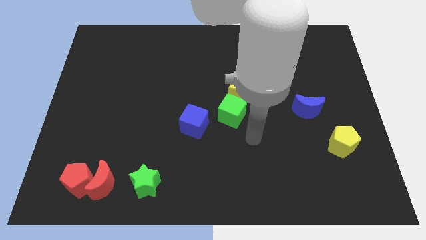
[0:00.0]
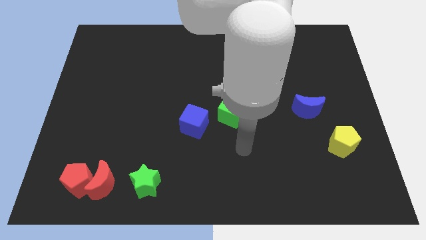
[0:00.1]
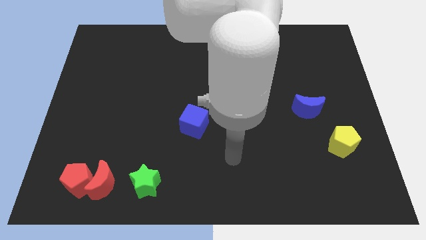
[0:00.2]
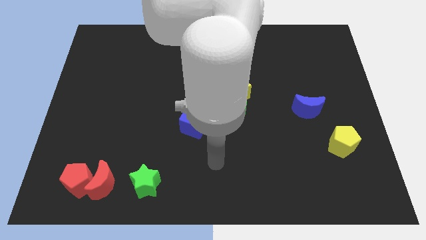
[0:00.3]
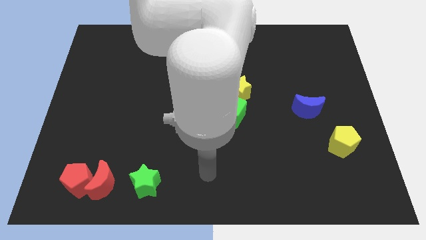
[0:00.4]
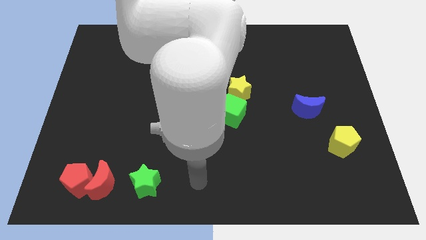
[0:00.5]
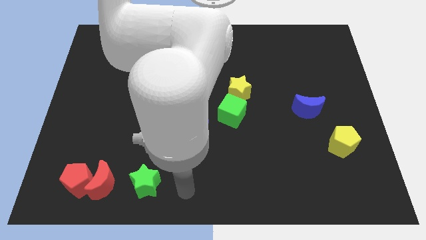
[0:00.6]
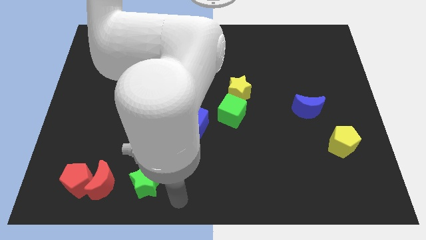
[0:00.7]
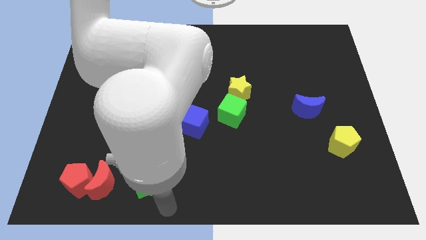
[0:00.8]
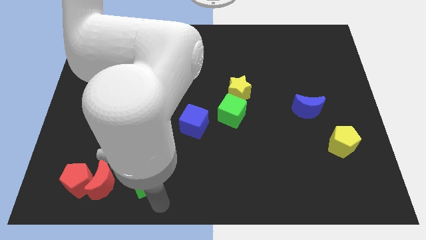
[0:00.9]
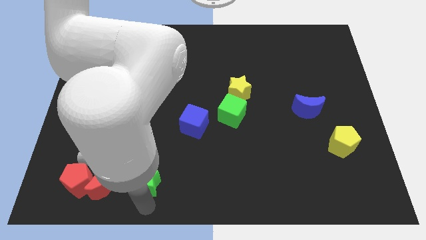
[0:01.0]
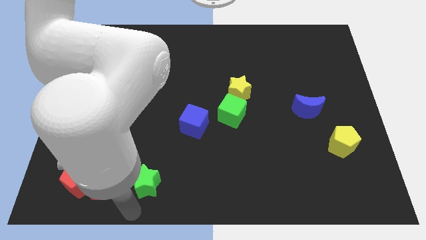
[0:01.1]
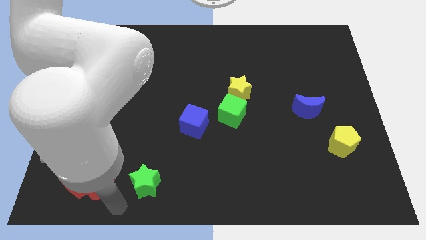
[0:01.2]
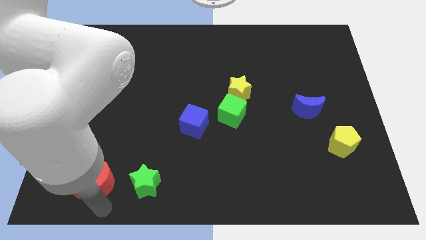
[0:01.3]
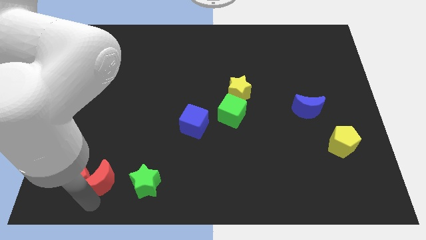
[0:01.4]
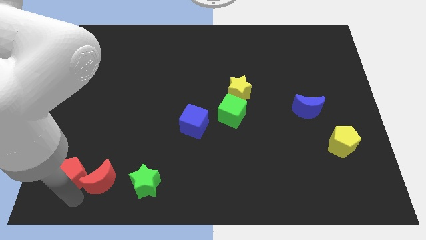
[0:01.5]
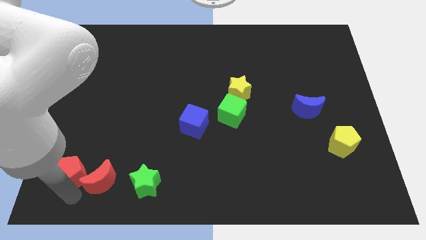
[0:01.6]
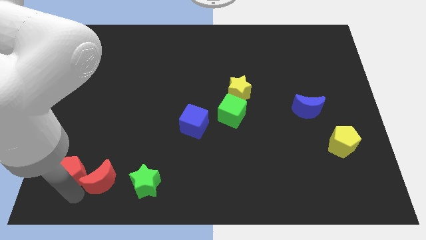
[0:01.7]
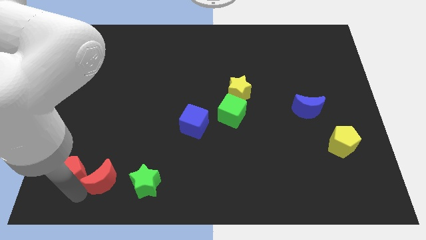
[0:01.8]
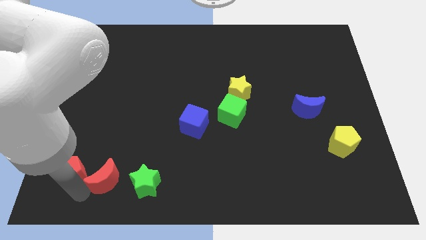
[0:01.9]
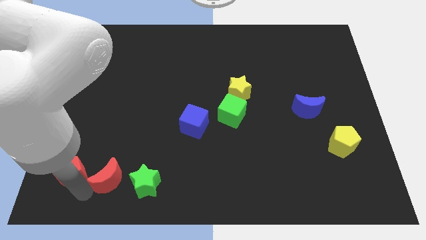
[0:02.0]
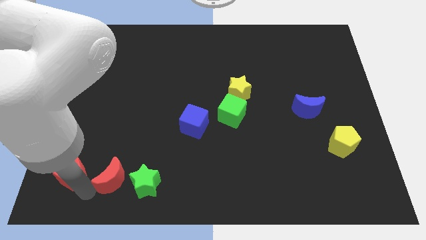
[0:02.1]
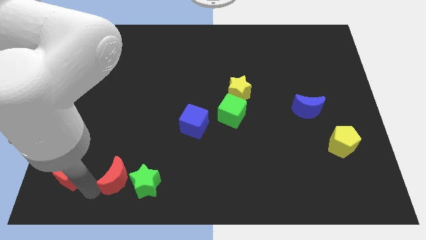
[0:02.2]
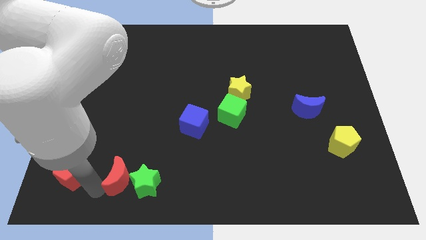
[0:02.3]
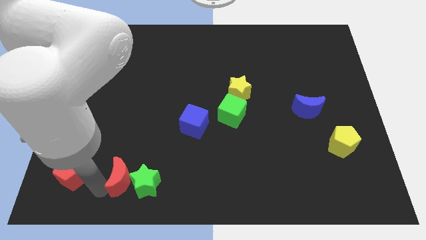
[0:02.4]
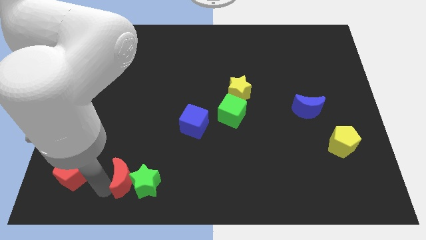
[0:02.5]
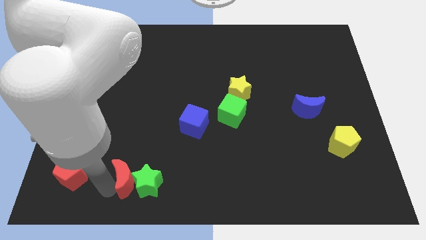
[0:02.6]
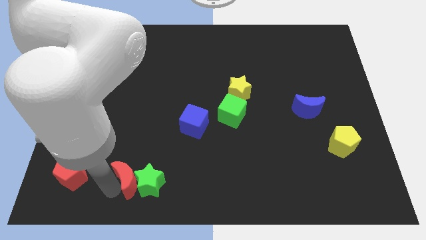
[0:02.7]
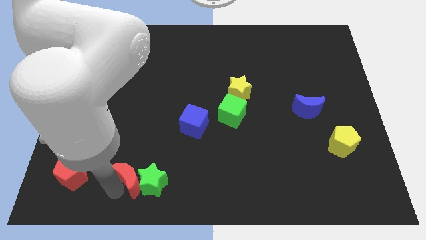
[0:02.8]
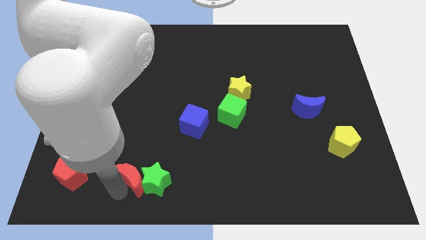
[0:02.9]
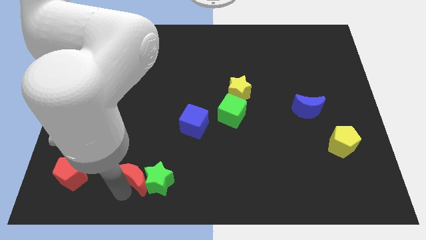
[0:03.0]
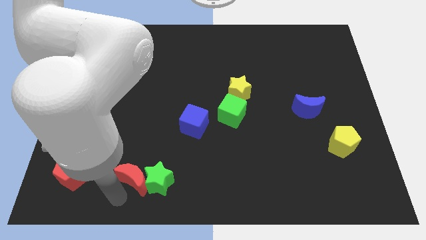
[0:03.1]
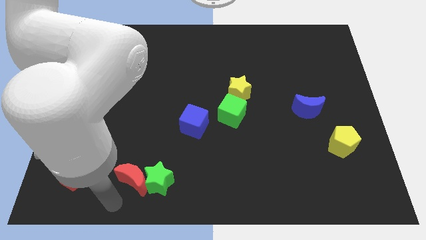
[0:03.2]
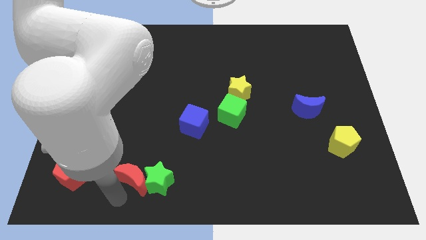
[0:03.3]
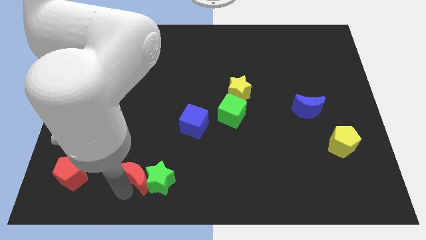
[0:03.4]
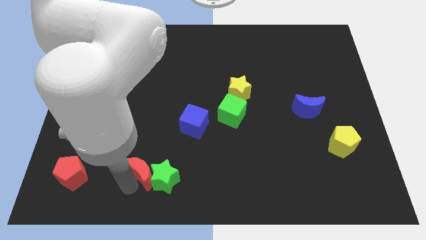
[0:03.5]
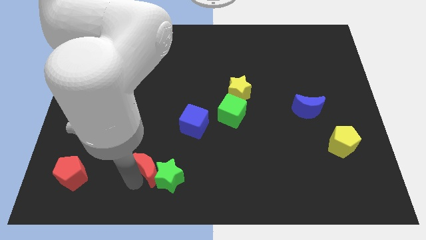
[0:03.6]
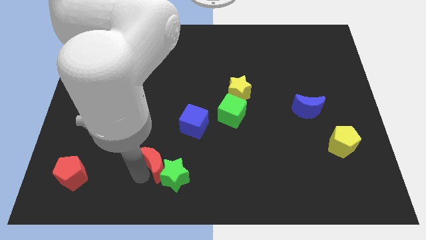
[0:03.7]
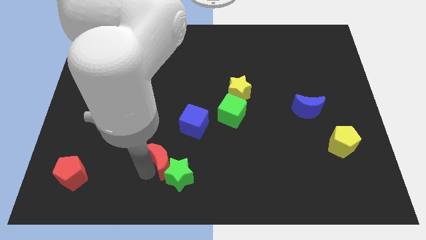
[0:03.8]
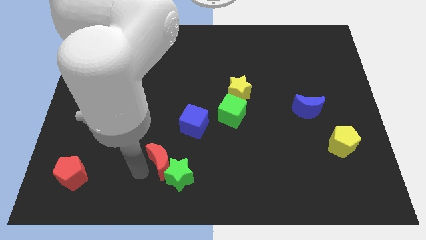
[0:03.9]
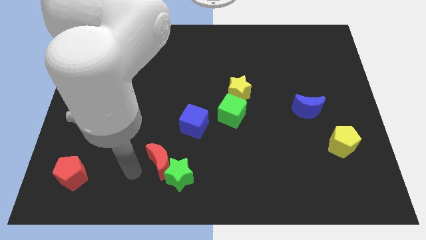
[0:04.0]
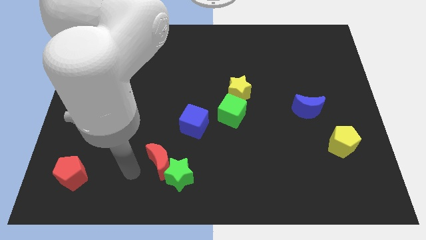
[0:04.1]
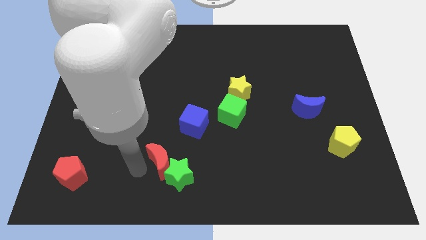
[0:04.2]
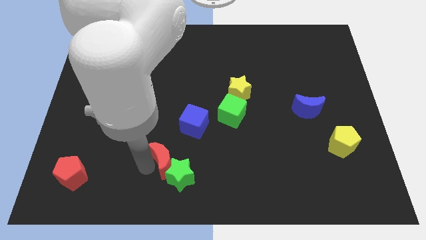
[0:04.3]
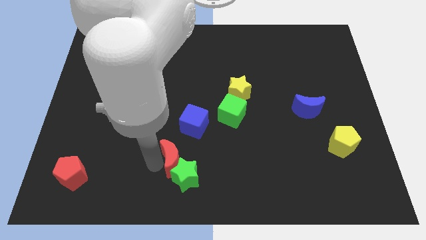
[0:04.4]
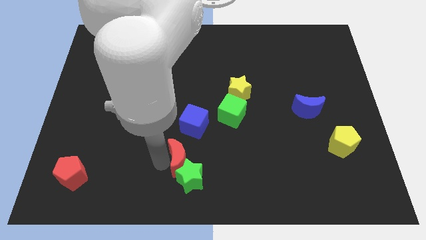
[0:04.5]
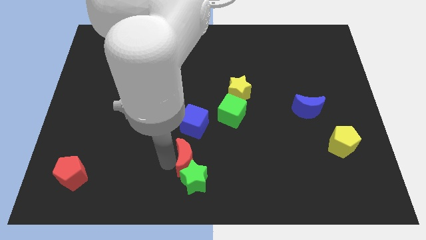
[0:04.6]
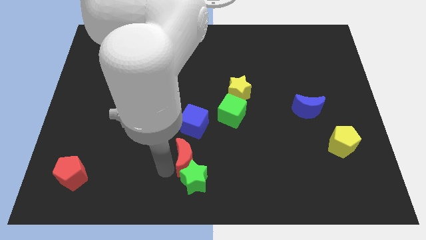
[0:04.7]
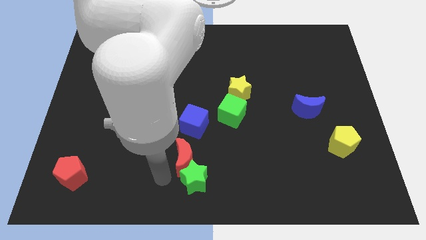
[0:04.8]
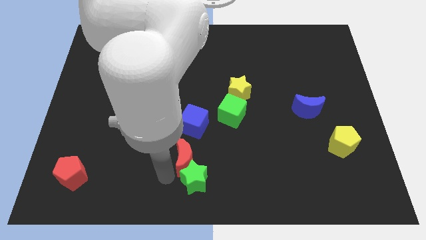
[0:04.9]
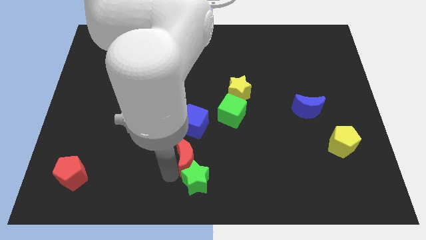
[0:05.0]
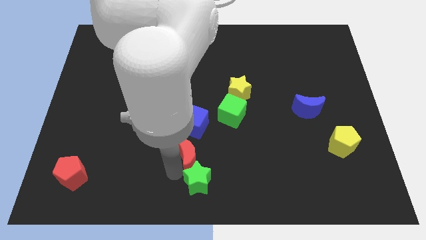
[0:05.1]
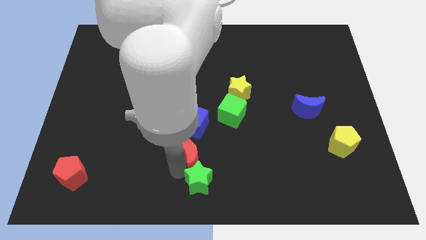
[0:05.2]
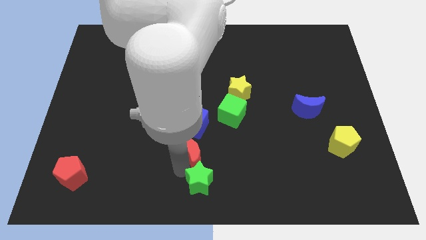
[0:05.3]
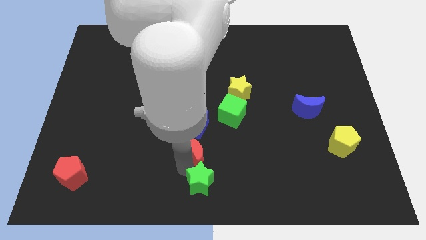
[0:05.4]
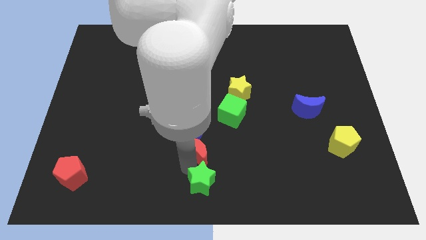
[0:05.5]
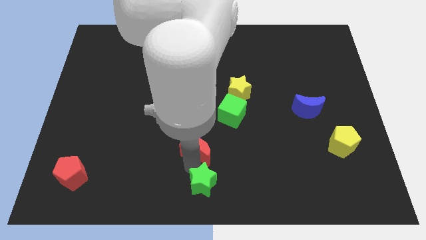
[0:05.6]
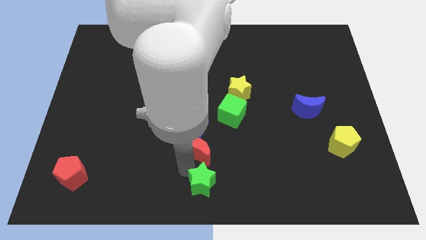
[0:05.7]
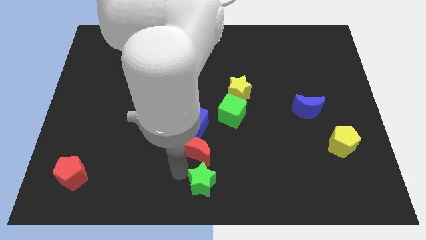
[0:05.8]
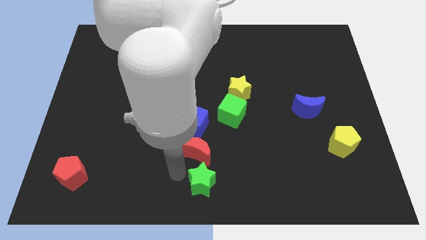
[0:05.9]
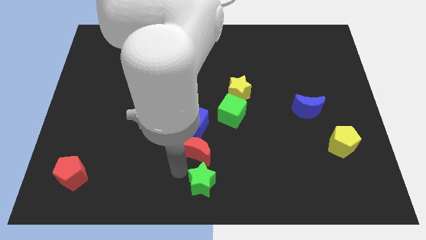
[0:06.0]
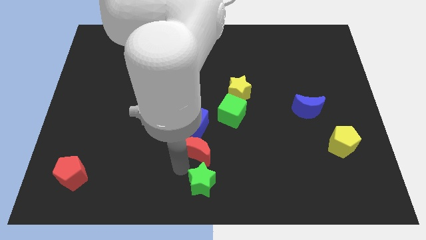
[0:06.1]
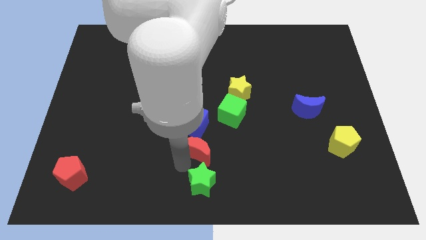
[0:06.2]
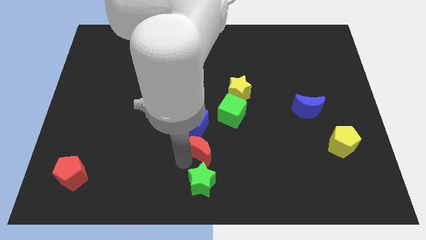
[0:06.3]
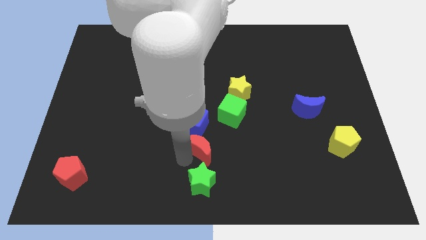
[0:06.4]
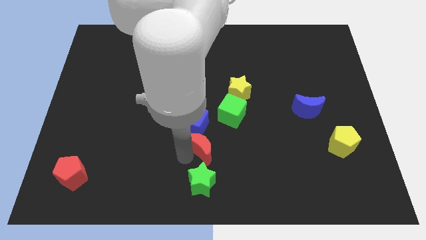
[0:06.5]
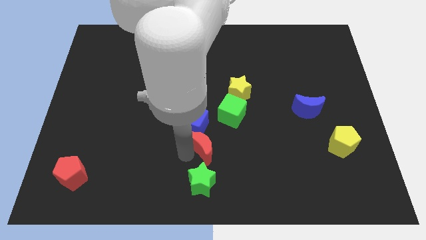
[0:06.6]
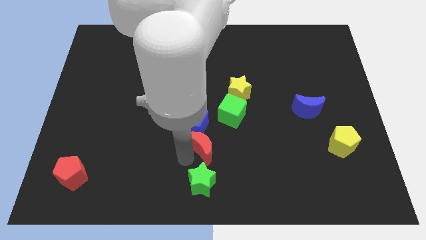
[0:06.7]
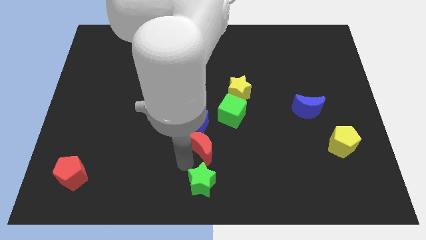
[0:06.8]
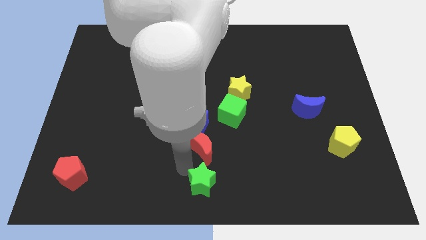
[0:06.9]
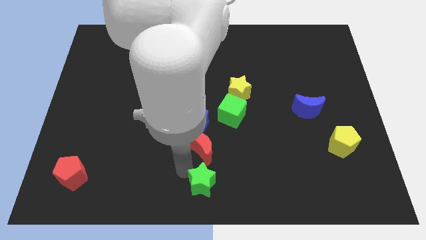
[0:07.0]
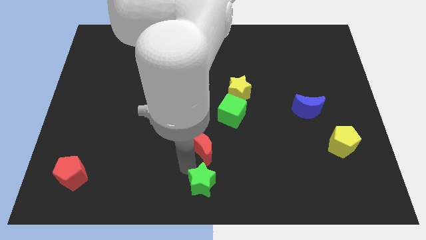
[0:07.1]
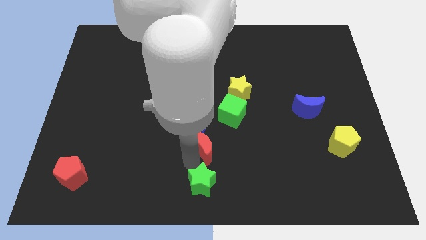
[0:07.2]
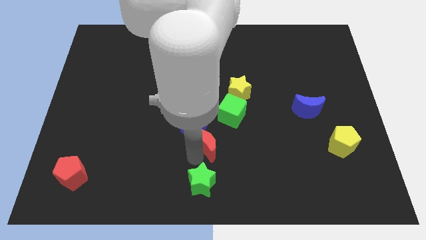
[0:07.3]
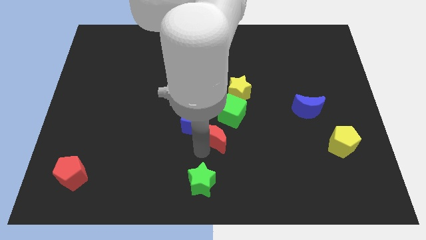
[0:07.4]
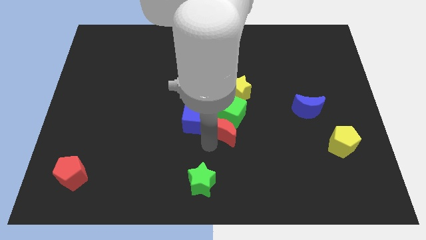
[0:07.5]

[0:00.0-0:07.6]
move the red moon close to the green cube
